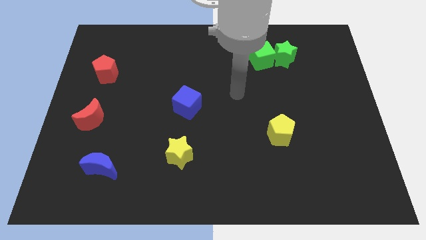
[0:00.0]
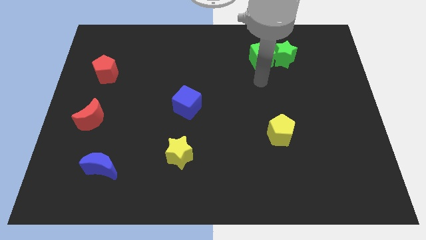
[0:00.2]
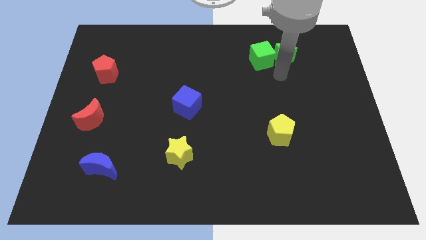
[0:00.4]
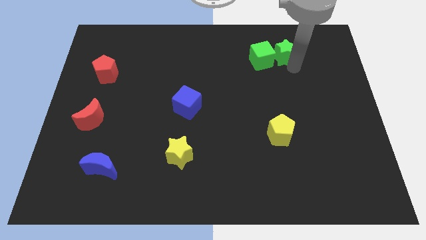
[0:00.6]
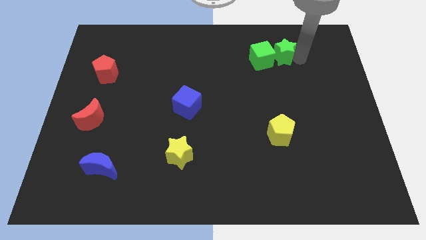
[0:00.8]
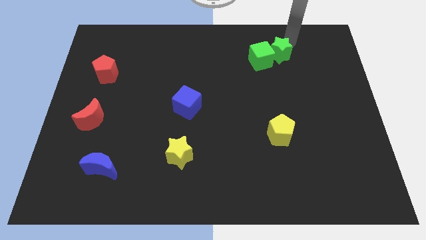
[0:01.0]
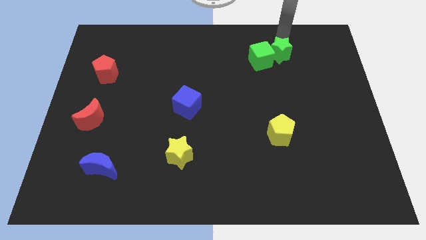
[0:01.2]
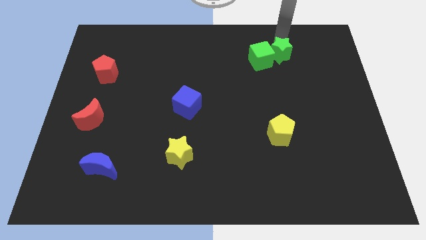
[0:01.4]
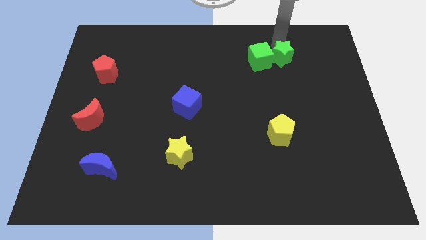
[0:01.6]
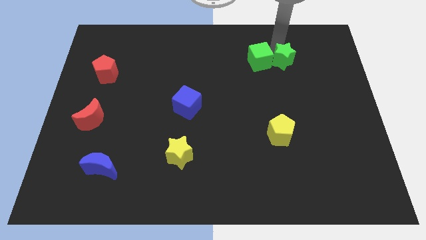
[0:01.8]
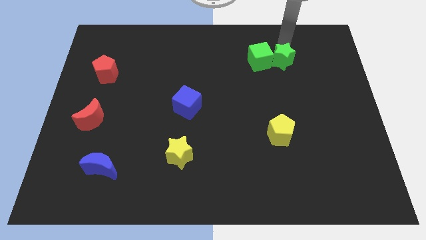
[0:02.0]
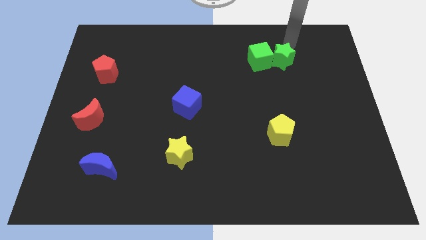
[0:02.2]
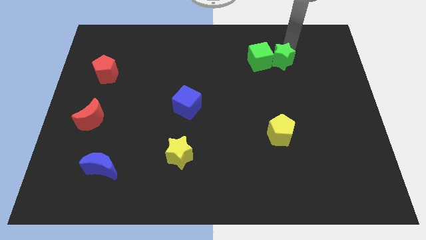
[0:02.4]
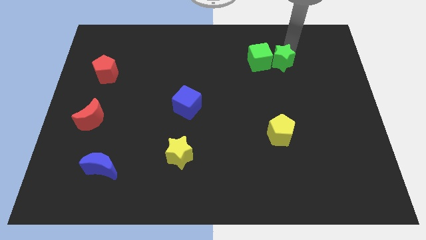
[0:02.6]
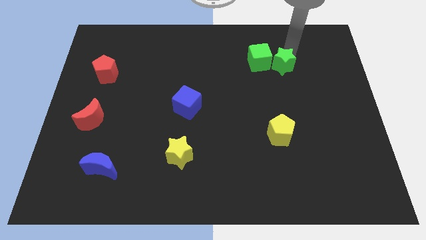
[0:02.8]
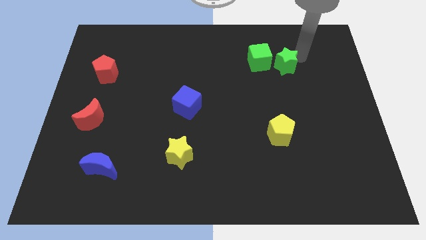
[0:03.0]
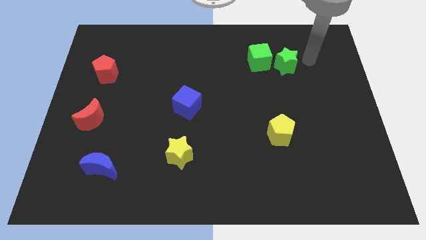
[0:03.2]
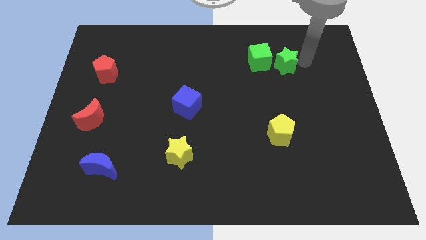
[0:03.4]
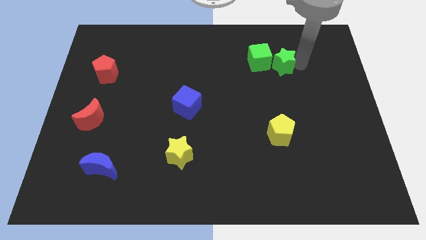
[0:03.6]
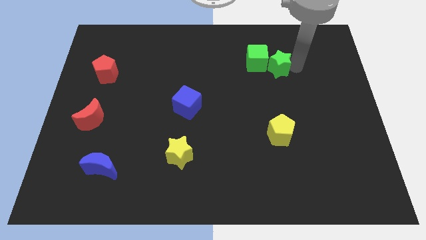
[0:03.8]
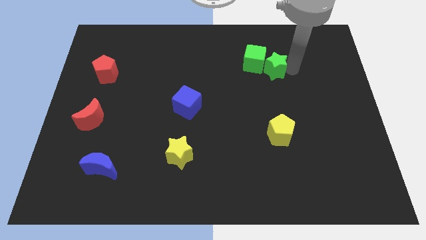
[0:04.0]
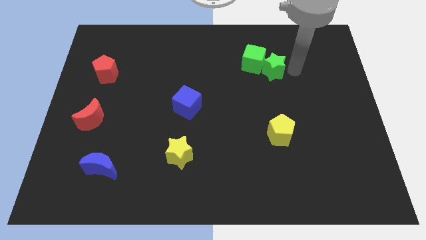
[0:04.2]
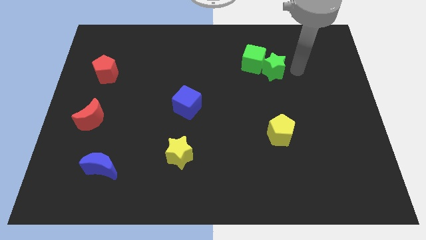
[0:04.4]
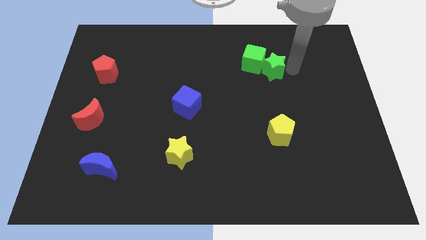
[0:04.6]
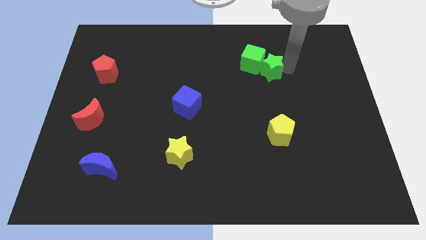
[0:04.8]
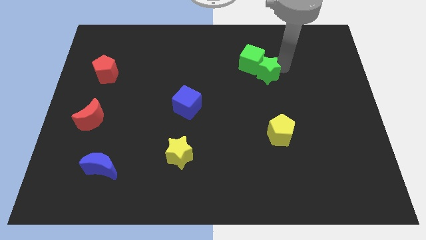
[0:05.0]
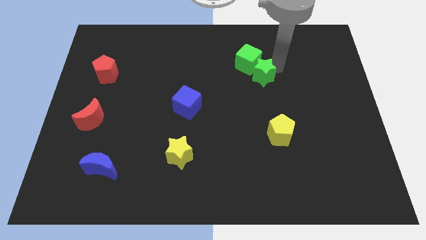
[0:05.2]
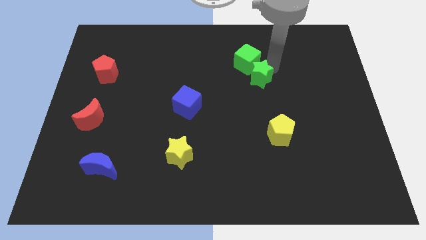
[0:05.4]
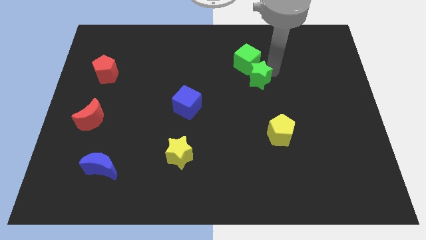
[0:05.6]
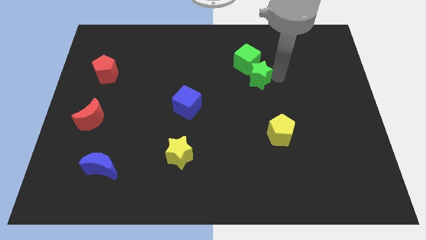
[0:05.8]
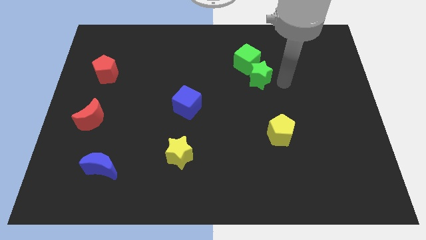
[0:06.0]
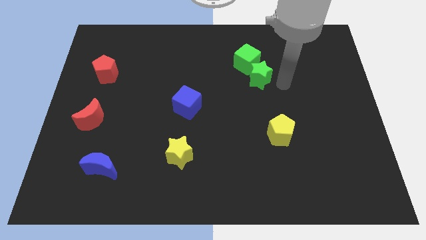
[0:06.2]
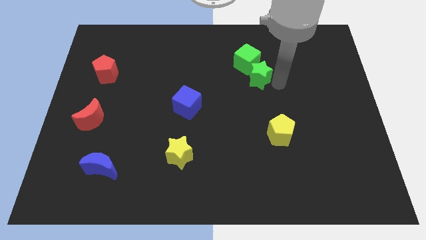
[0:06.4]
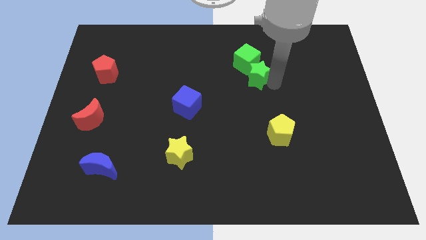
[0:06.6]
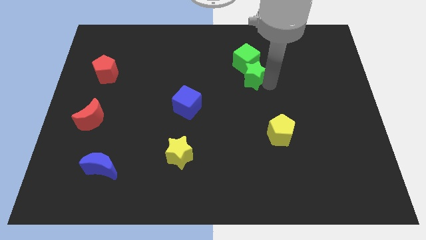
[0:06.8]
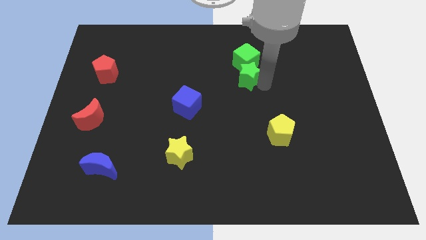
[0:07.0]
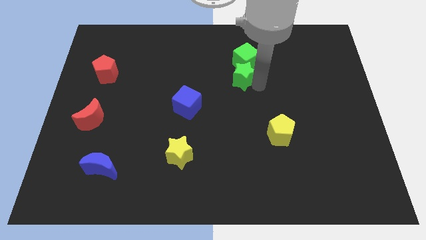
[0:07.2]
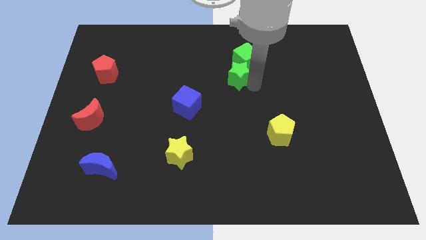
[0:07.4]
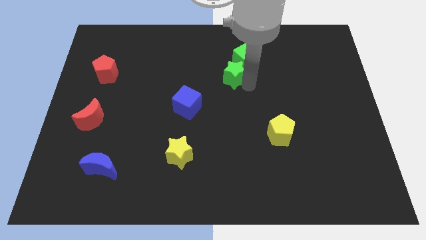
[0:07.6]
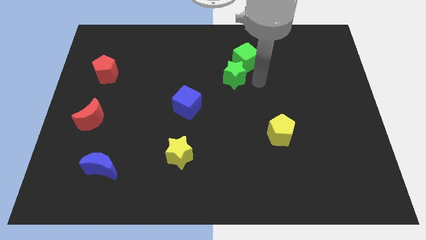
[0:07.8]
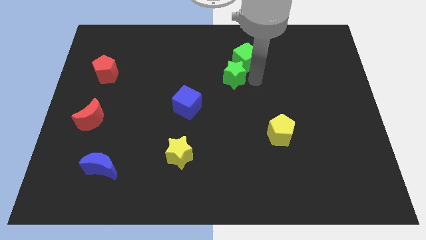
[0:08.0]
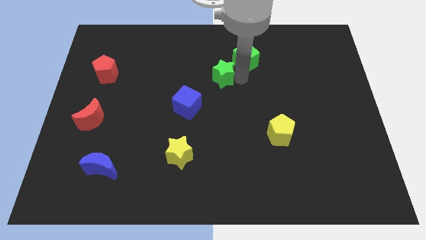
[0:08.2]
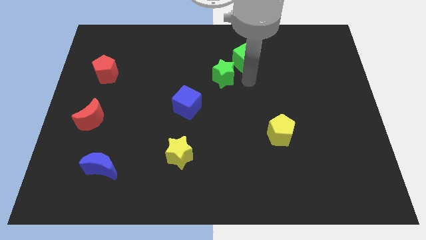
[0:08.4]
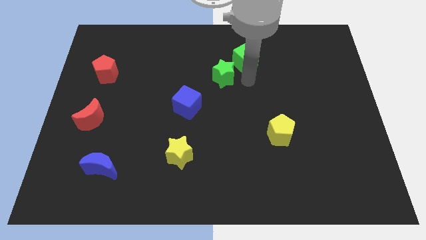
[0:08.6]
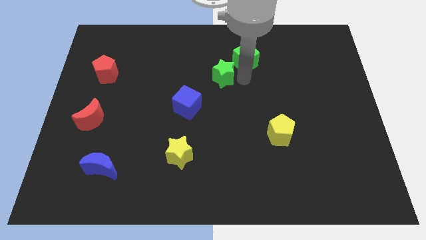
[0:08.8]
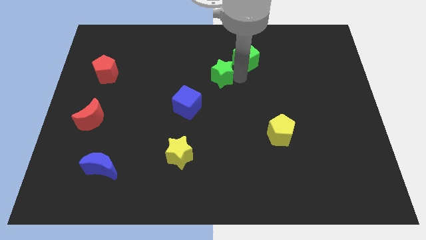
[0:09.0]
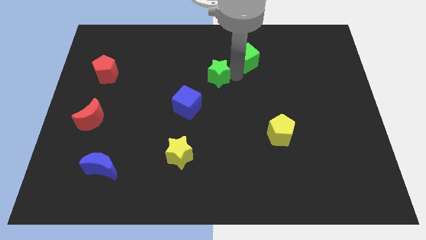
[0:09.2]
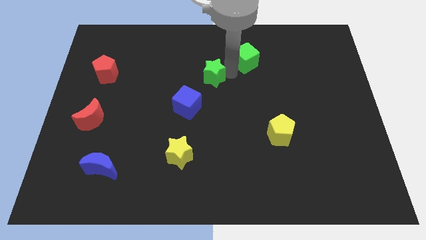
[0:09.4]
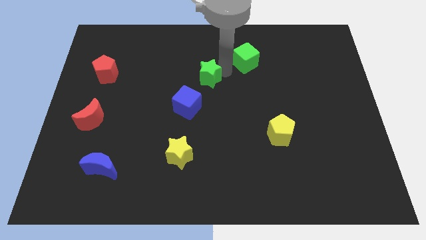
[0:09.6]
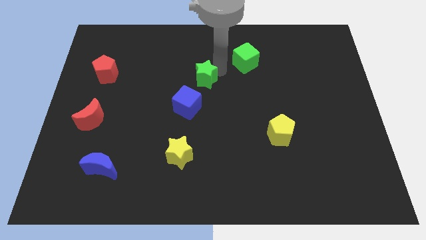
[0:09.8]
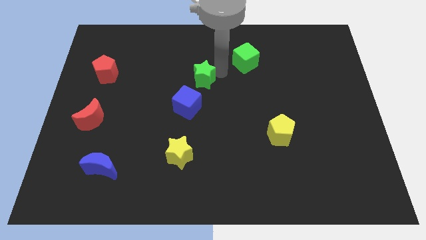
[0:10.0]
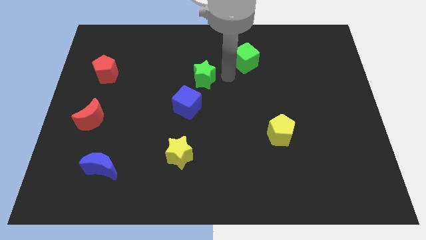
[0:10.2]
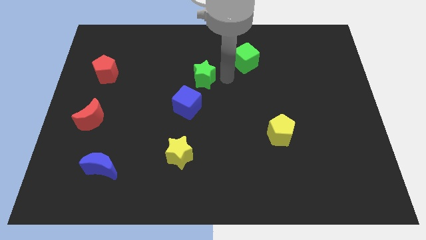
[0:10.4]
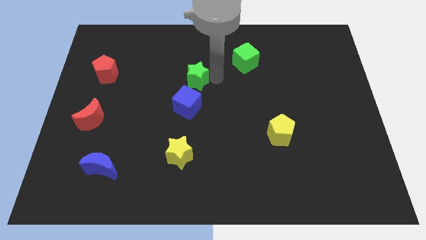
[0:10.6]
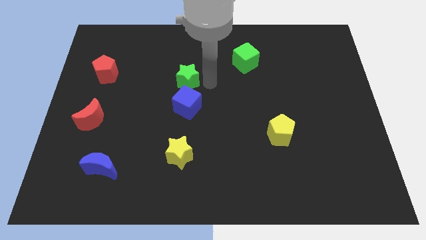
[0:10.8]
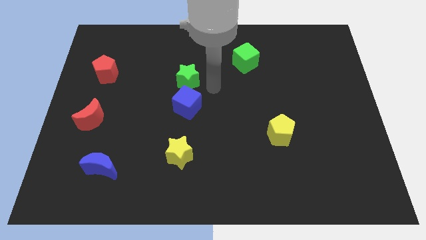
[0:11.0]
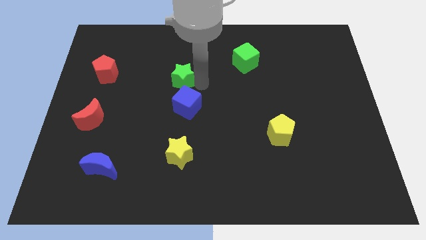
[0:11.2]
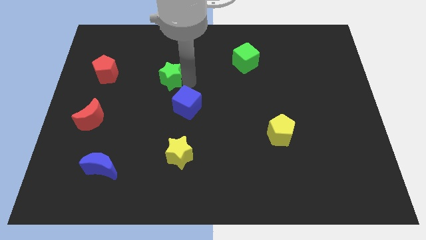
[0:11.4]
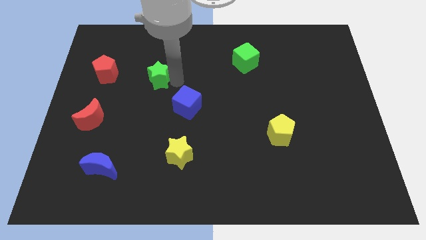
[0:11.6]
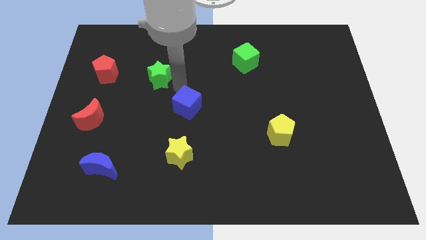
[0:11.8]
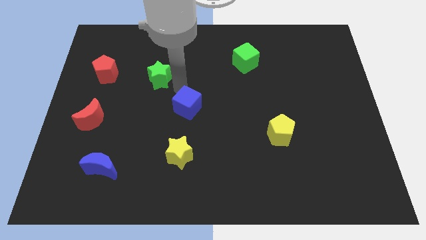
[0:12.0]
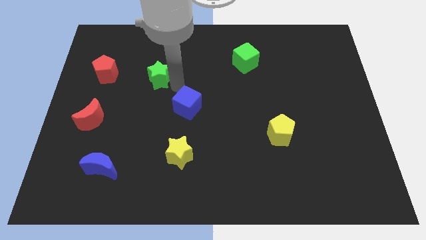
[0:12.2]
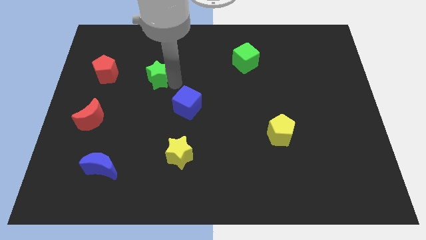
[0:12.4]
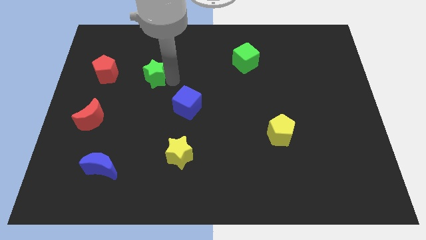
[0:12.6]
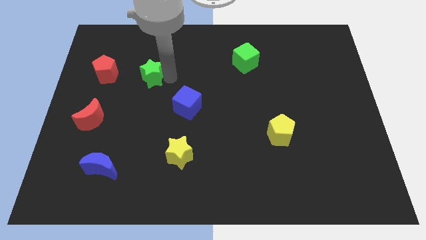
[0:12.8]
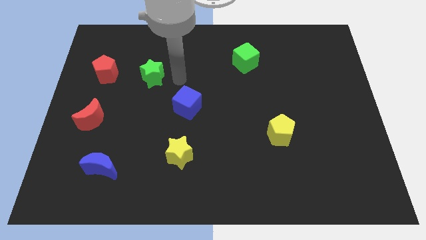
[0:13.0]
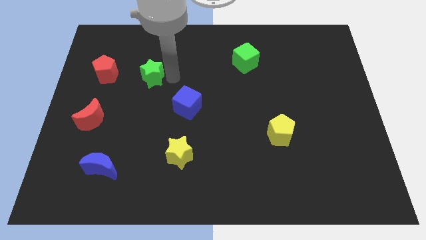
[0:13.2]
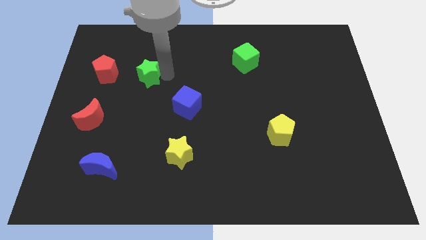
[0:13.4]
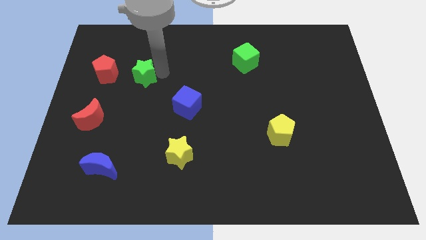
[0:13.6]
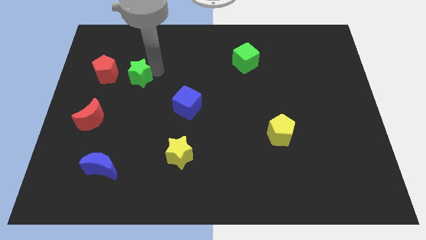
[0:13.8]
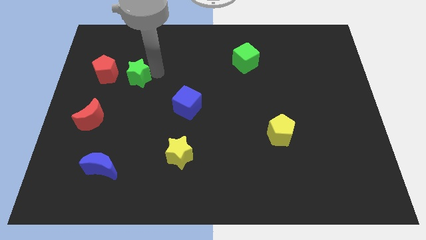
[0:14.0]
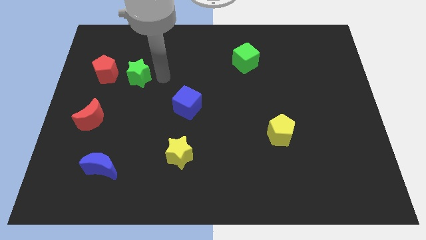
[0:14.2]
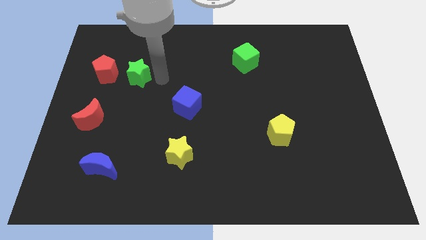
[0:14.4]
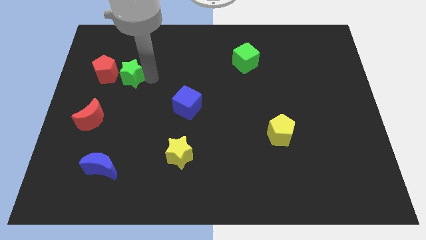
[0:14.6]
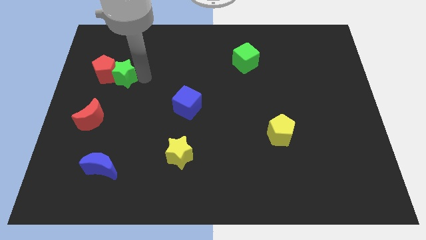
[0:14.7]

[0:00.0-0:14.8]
slide the green star next to the red pentagon
